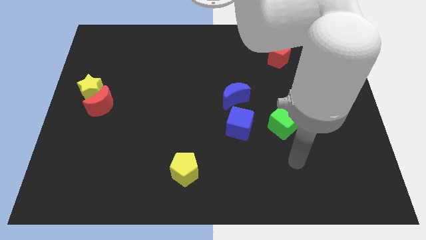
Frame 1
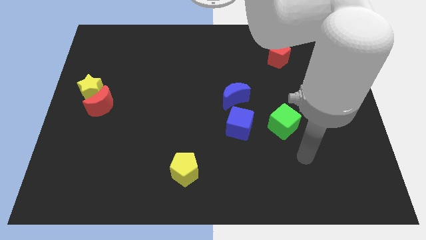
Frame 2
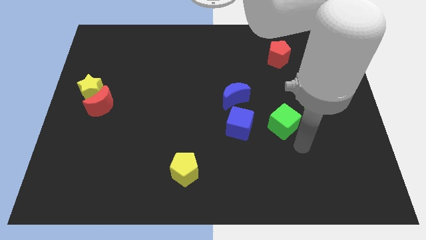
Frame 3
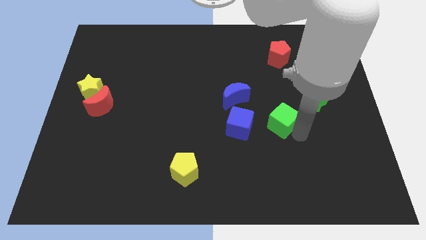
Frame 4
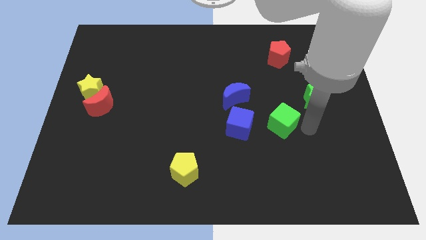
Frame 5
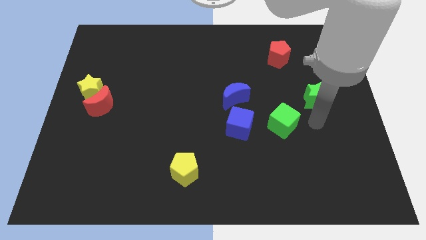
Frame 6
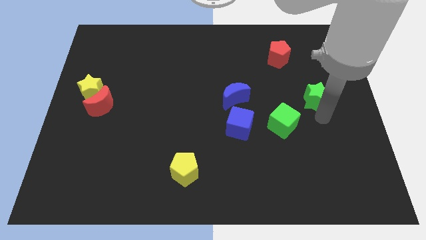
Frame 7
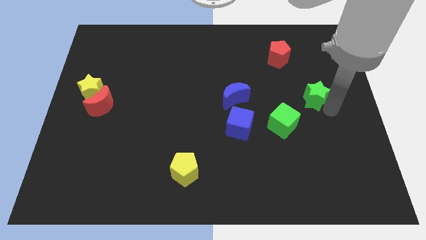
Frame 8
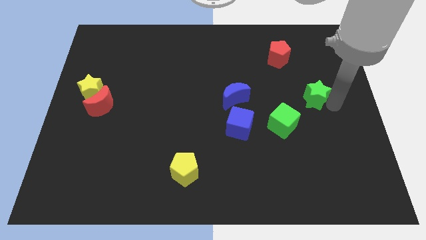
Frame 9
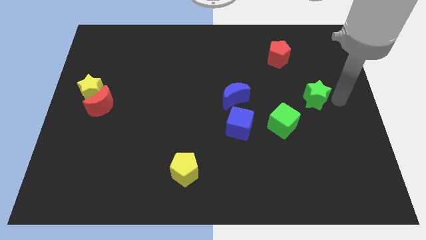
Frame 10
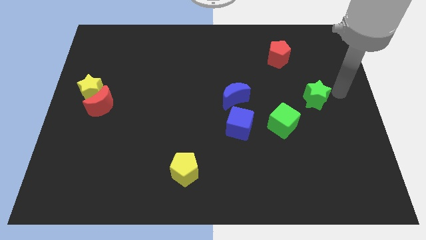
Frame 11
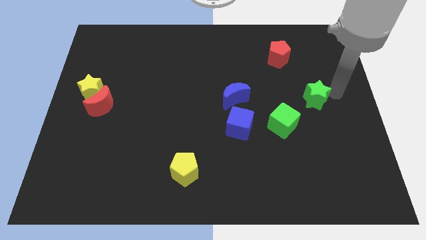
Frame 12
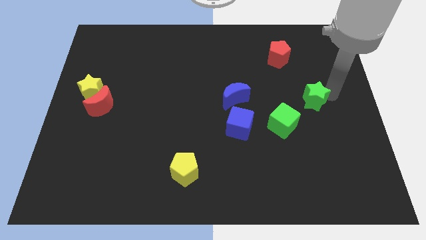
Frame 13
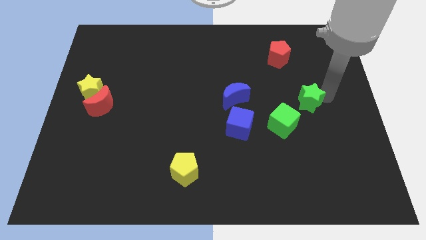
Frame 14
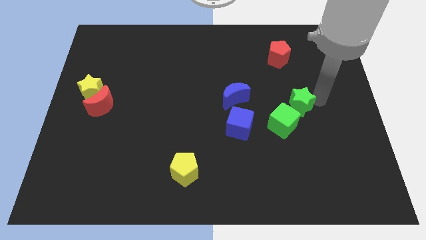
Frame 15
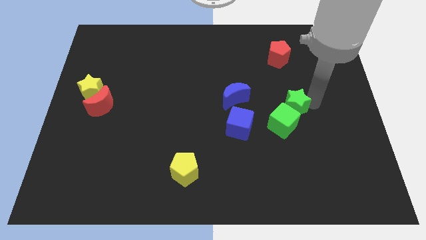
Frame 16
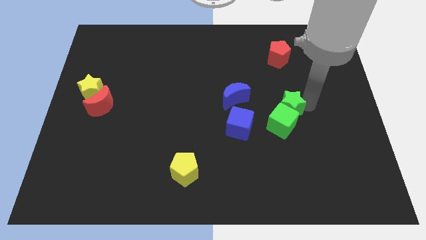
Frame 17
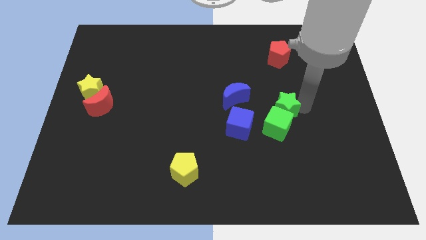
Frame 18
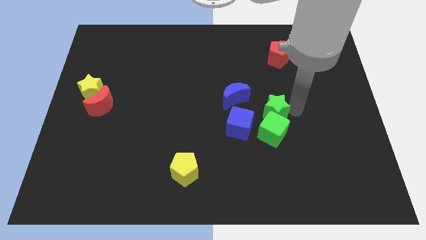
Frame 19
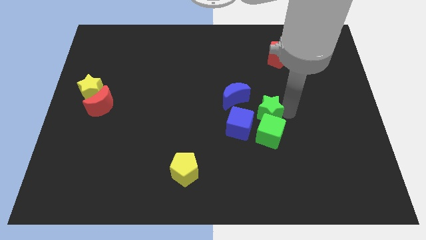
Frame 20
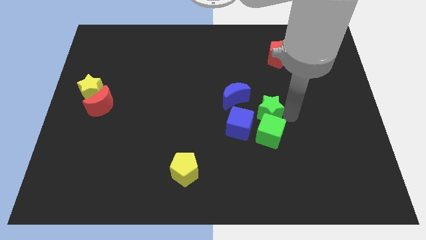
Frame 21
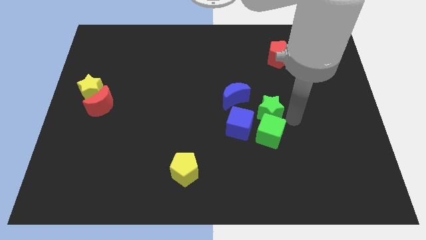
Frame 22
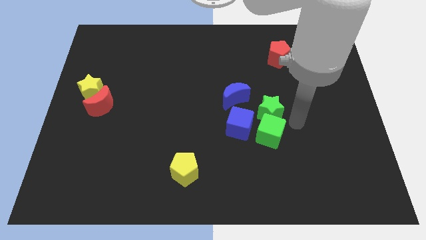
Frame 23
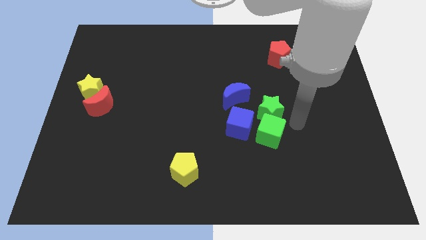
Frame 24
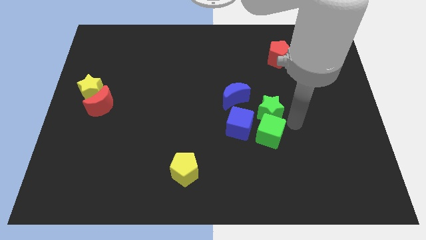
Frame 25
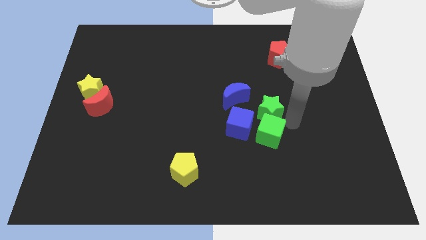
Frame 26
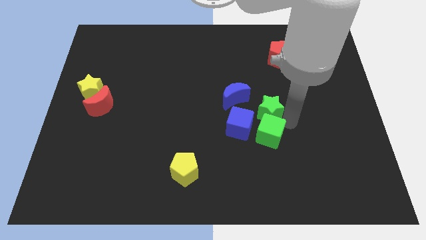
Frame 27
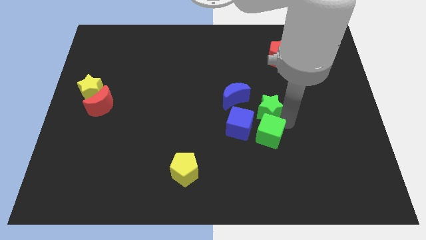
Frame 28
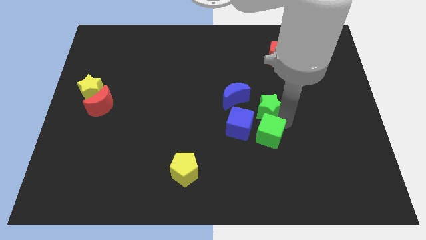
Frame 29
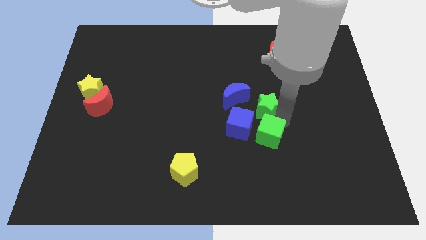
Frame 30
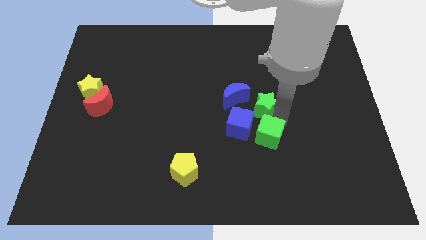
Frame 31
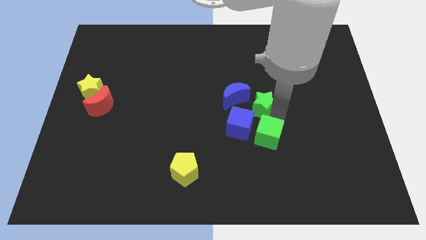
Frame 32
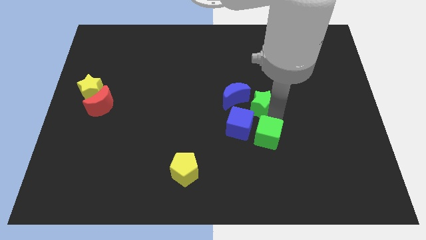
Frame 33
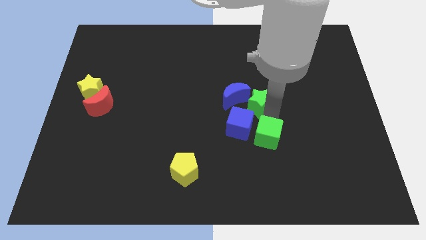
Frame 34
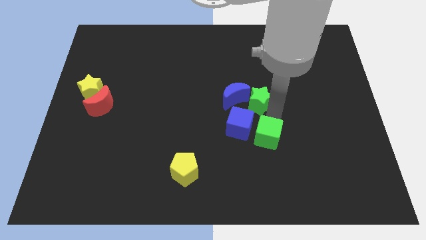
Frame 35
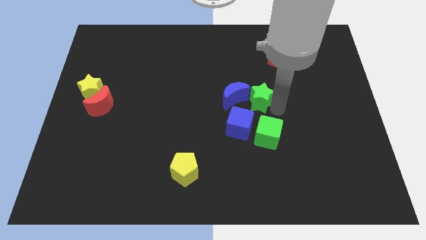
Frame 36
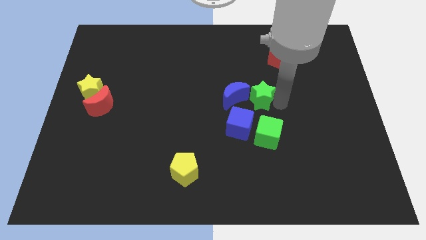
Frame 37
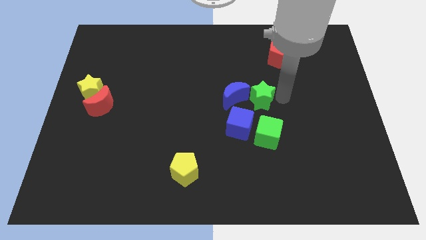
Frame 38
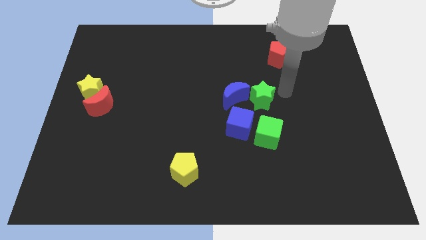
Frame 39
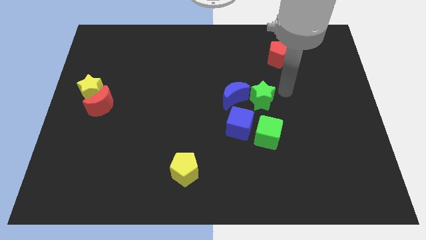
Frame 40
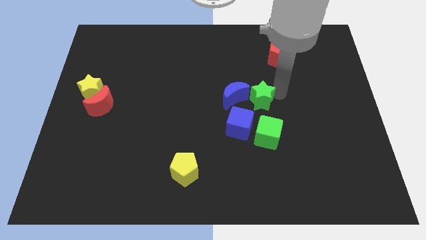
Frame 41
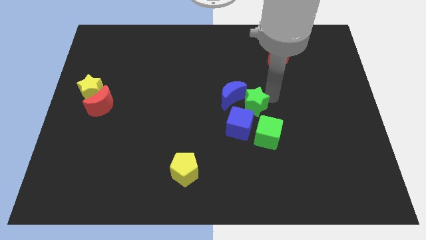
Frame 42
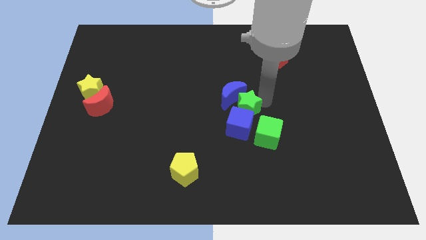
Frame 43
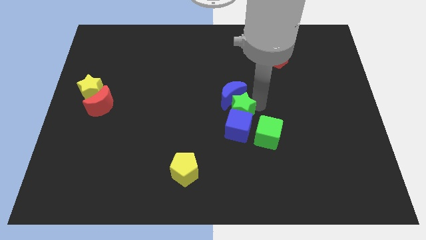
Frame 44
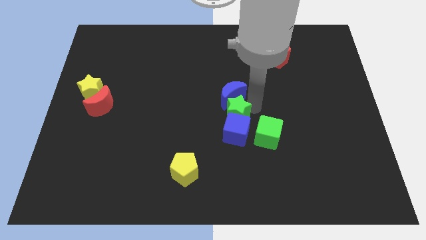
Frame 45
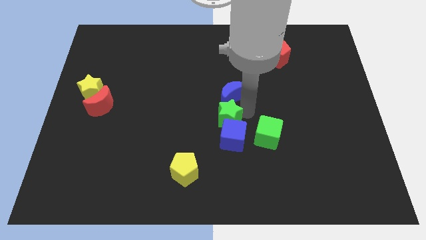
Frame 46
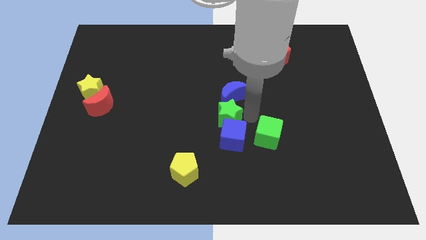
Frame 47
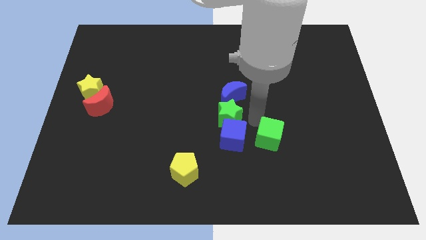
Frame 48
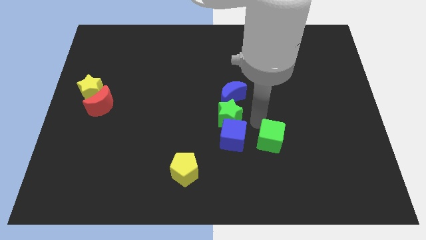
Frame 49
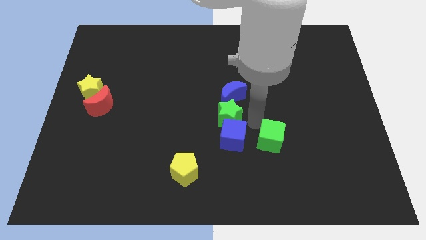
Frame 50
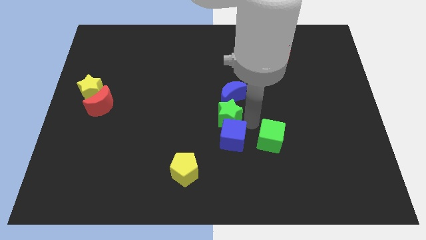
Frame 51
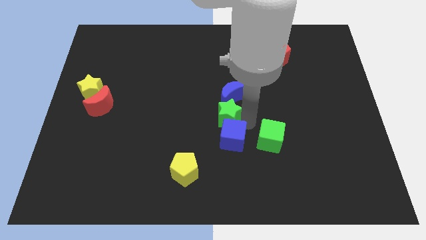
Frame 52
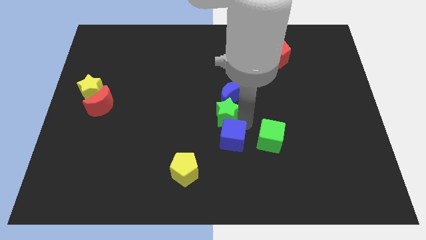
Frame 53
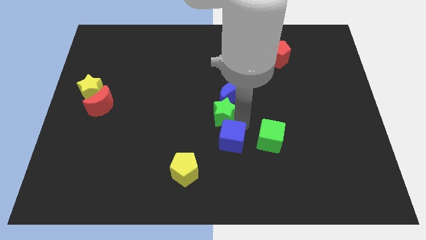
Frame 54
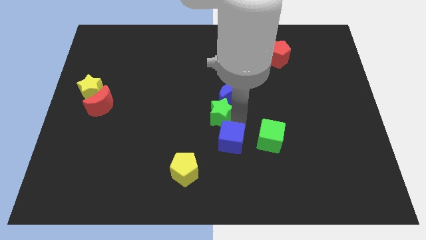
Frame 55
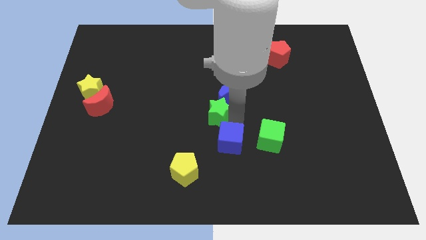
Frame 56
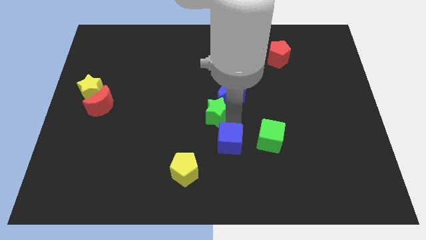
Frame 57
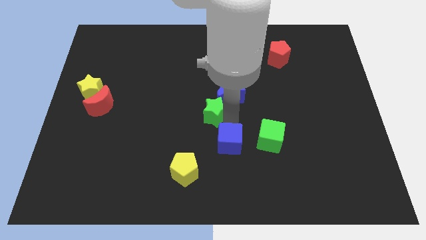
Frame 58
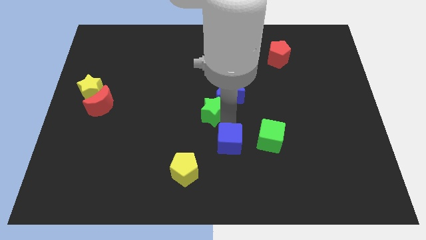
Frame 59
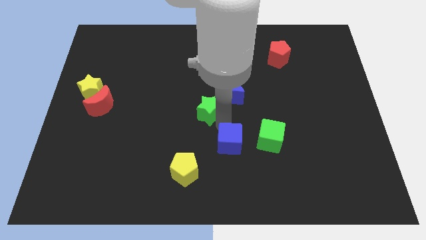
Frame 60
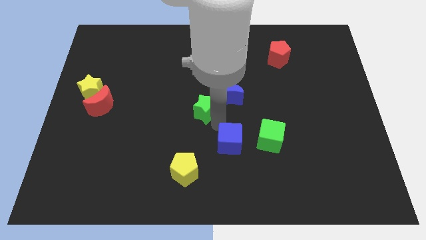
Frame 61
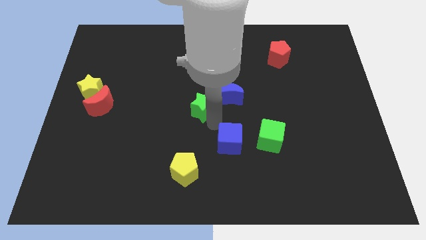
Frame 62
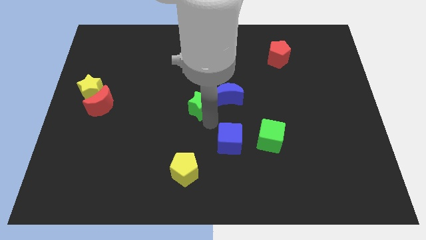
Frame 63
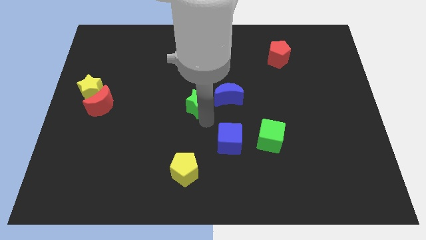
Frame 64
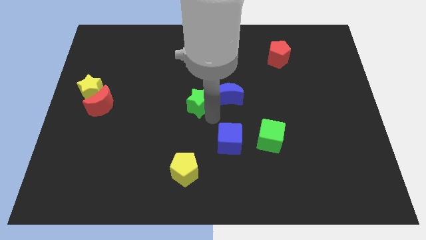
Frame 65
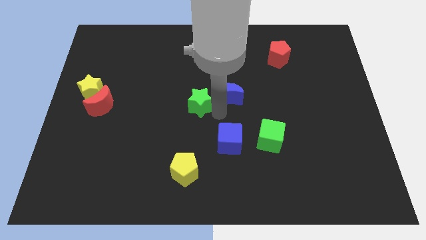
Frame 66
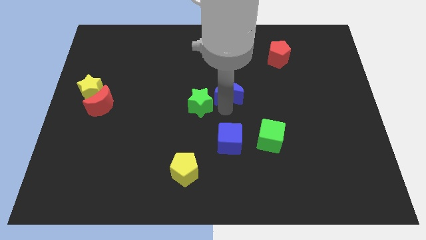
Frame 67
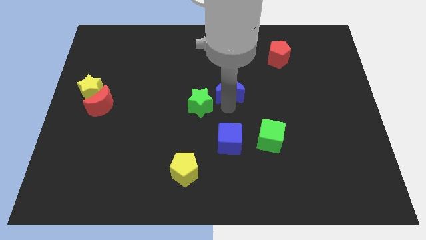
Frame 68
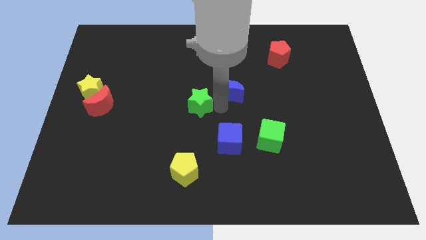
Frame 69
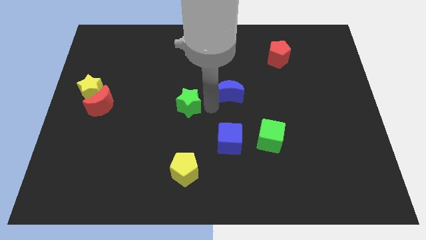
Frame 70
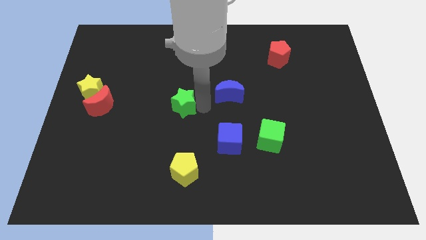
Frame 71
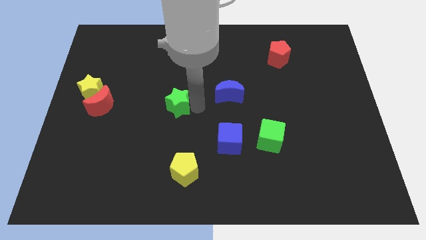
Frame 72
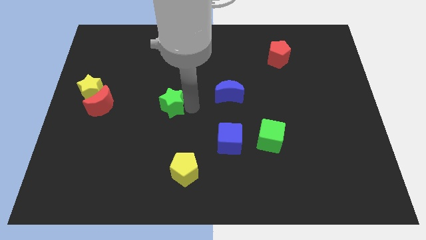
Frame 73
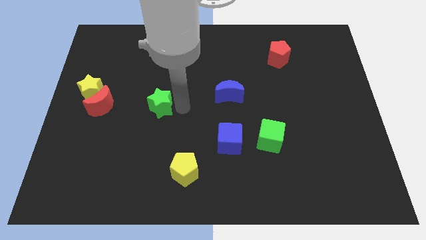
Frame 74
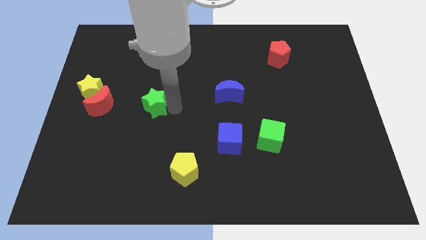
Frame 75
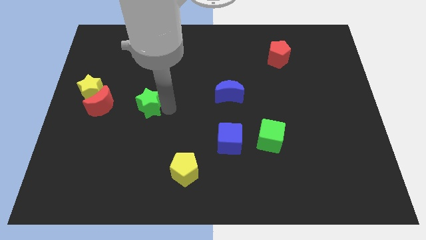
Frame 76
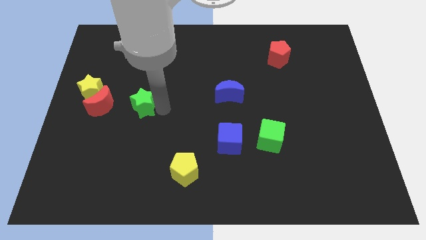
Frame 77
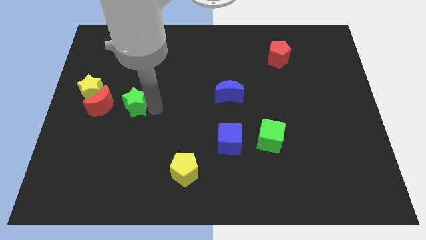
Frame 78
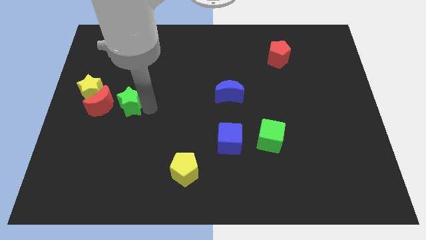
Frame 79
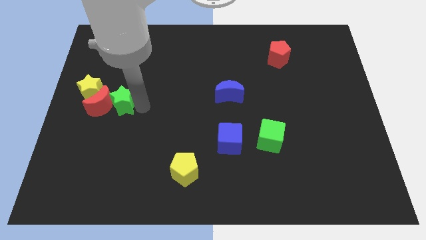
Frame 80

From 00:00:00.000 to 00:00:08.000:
move the green star close to the red moon

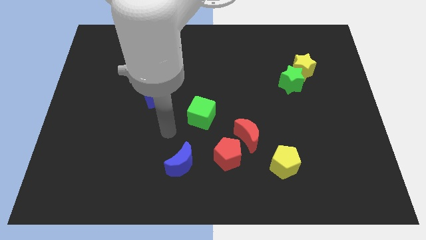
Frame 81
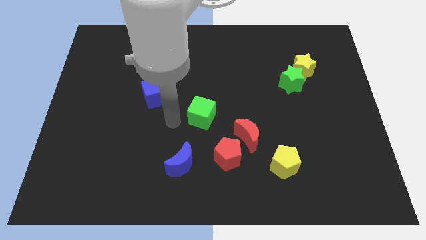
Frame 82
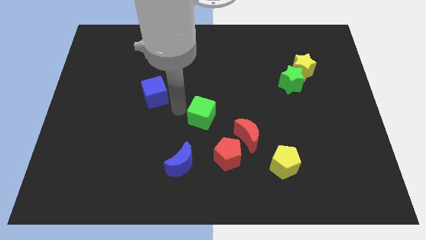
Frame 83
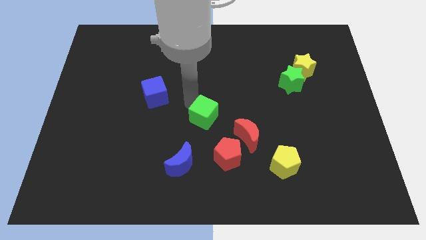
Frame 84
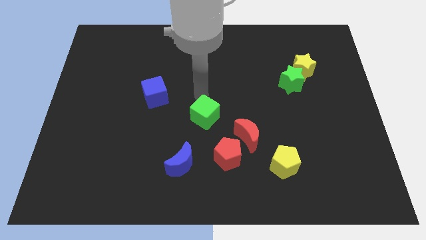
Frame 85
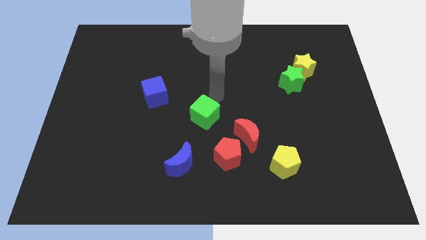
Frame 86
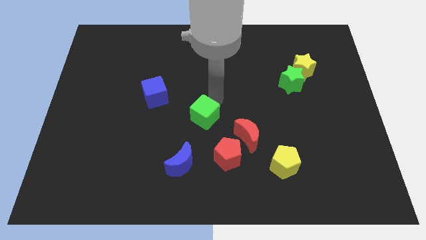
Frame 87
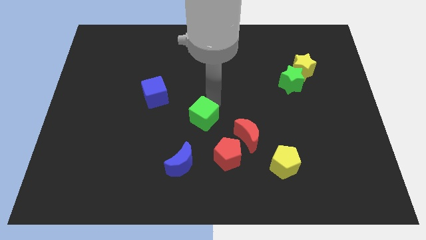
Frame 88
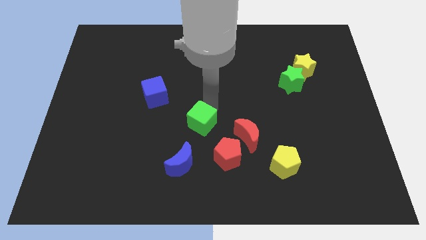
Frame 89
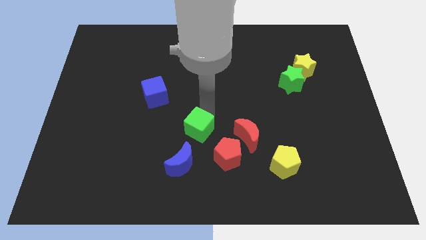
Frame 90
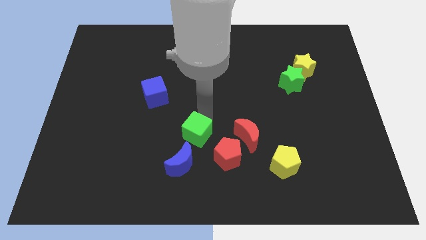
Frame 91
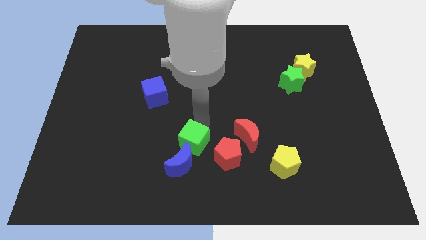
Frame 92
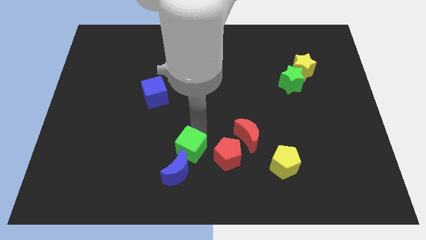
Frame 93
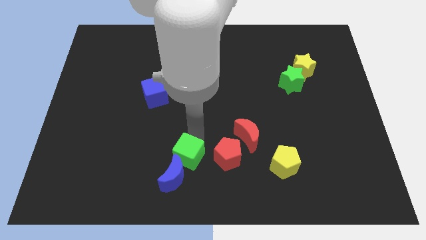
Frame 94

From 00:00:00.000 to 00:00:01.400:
push the green cube next to the blue moon
